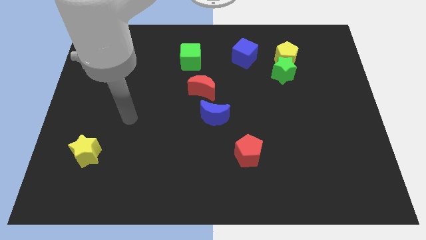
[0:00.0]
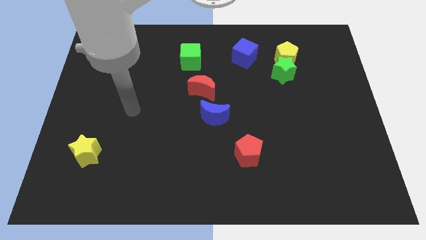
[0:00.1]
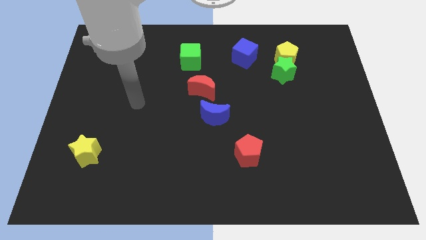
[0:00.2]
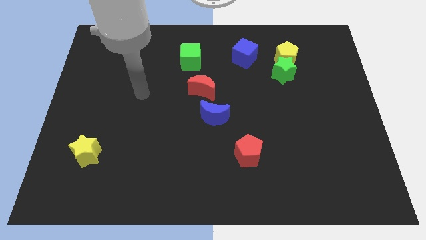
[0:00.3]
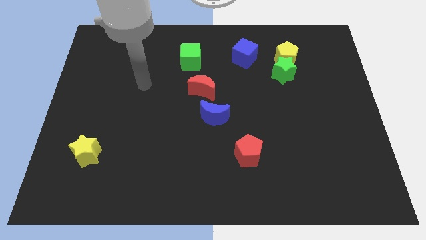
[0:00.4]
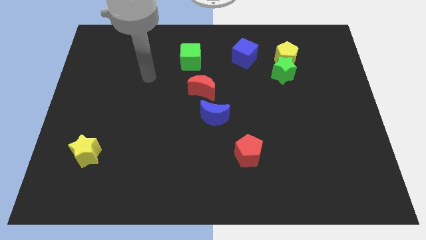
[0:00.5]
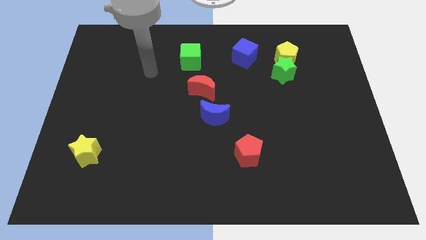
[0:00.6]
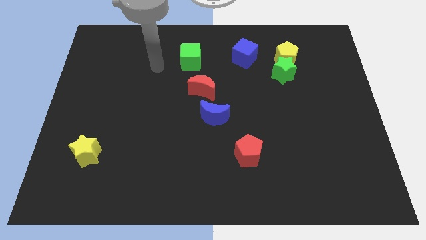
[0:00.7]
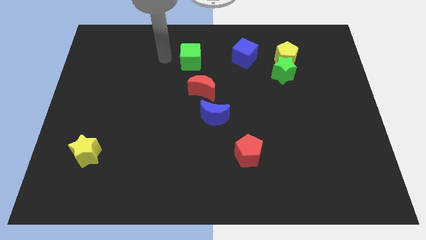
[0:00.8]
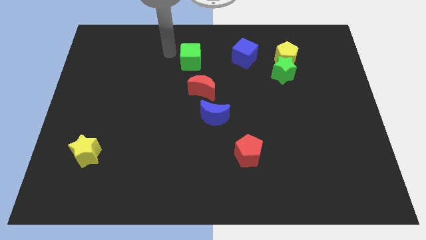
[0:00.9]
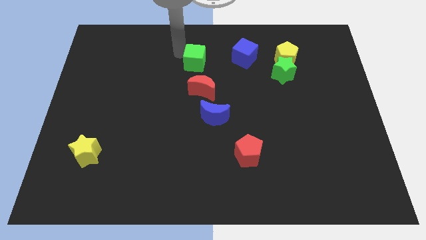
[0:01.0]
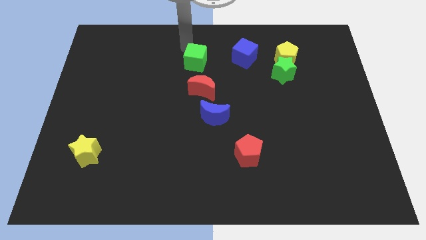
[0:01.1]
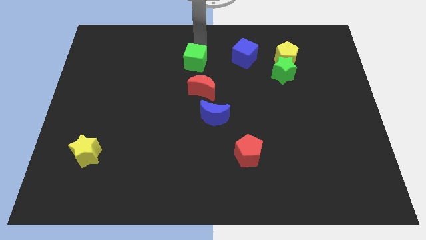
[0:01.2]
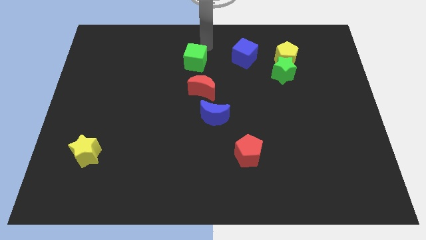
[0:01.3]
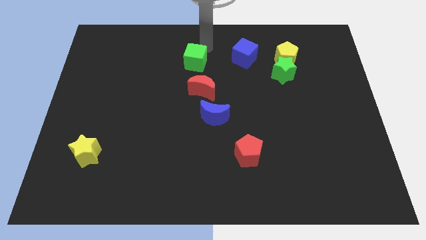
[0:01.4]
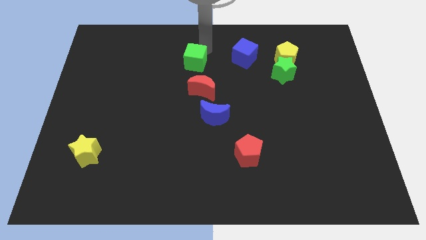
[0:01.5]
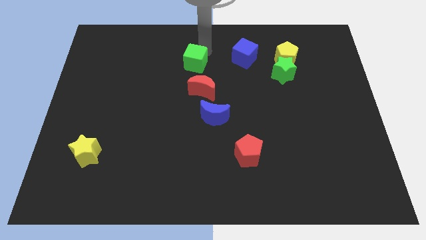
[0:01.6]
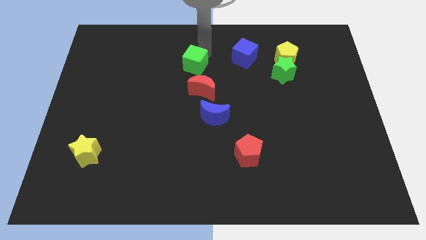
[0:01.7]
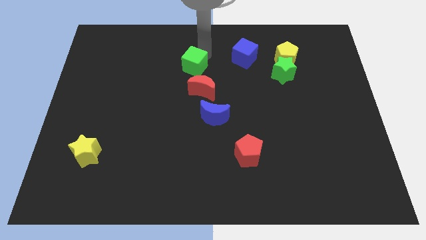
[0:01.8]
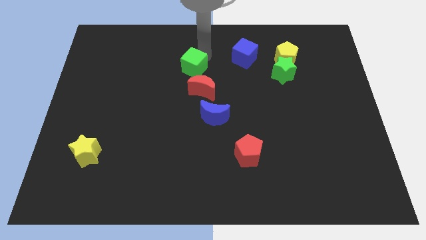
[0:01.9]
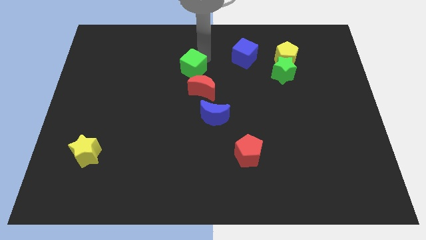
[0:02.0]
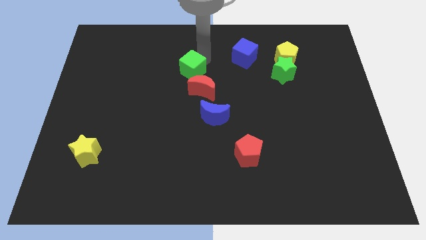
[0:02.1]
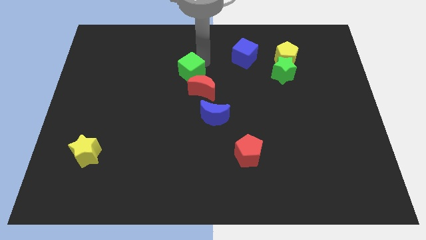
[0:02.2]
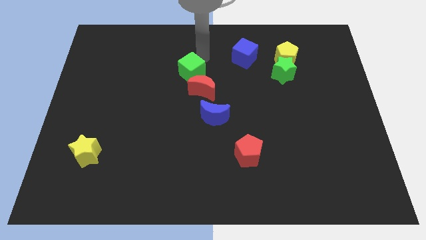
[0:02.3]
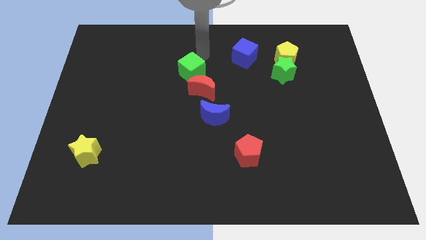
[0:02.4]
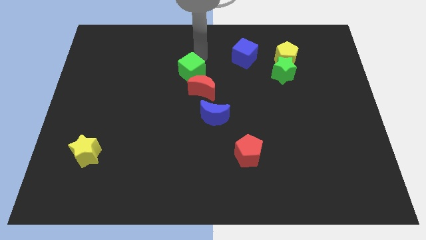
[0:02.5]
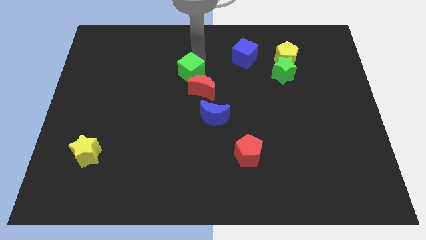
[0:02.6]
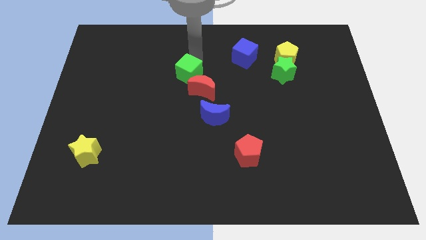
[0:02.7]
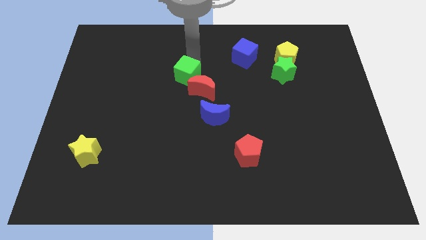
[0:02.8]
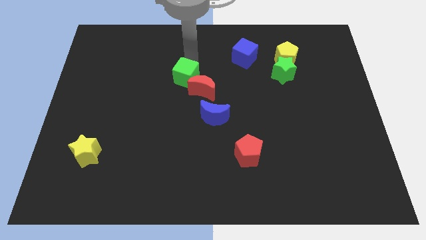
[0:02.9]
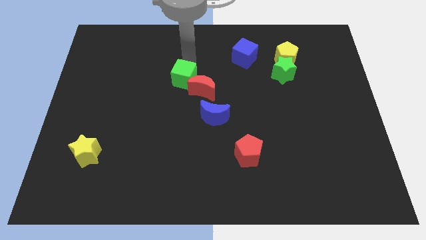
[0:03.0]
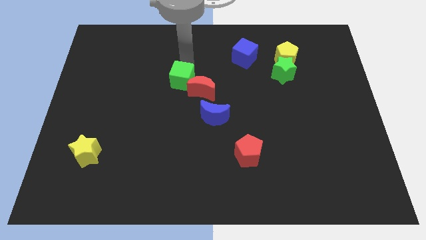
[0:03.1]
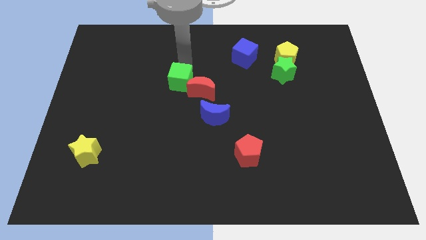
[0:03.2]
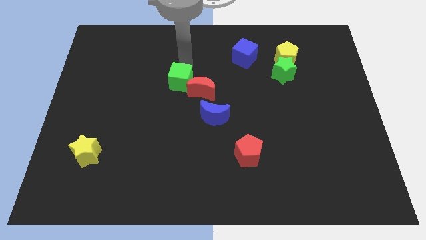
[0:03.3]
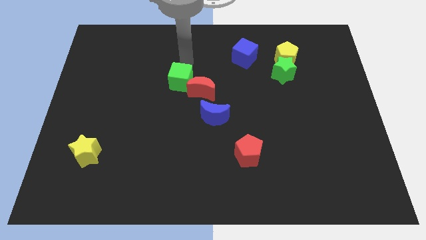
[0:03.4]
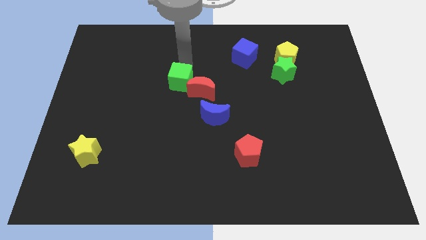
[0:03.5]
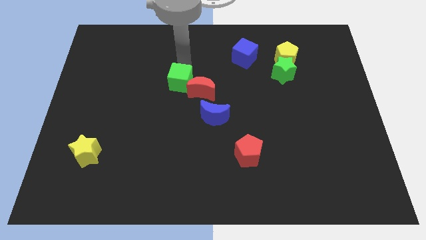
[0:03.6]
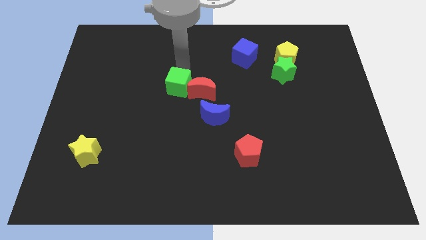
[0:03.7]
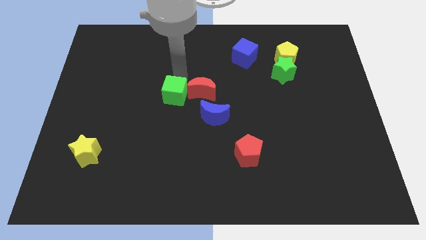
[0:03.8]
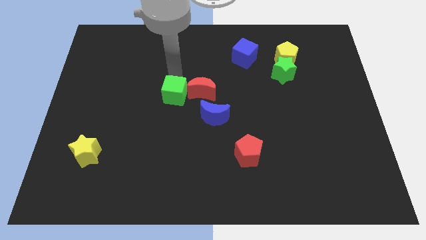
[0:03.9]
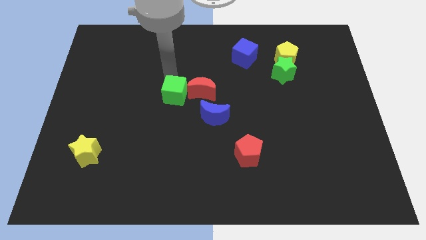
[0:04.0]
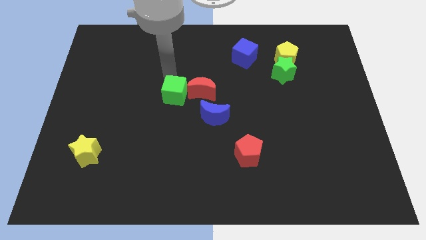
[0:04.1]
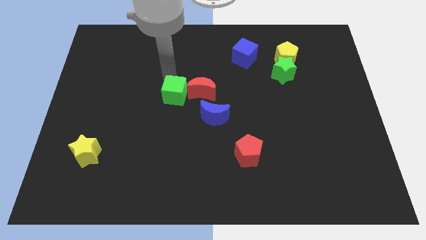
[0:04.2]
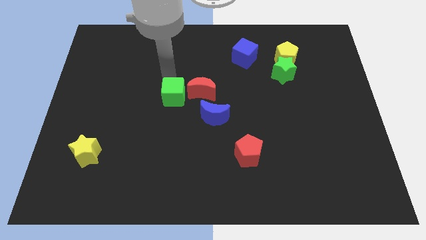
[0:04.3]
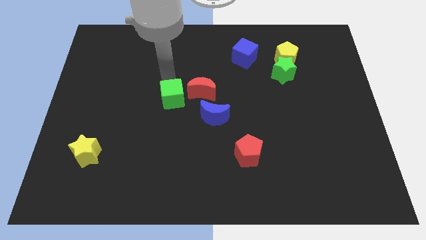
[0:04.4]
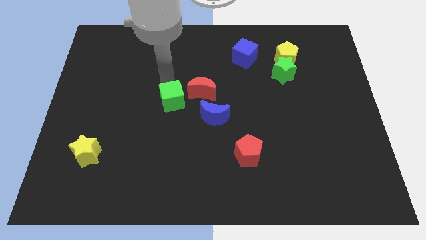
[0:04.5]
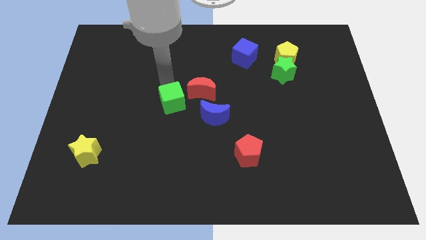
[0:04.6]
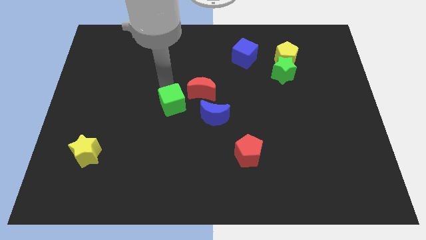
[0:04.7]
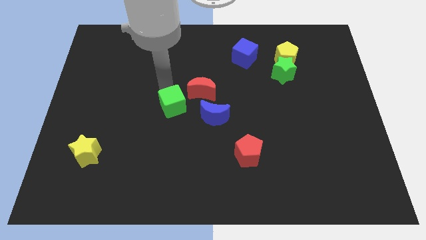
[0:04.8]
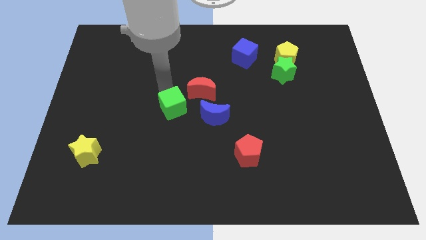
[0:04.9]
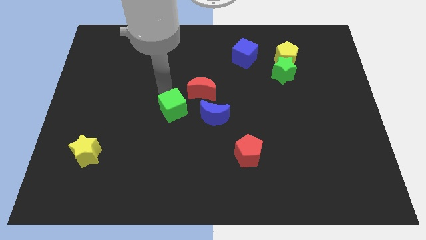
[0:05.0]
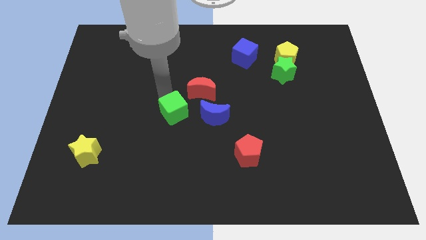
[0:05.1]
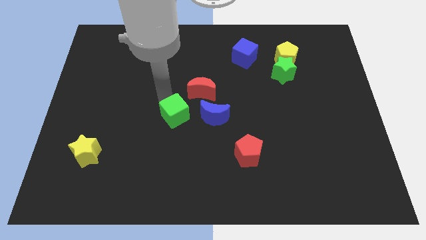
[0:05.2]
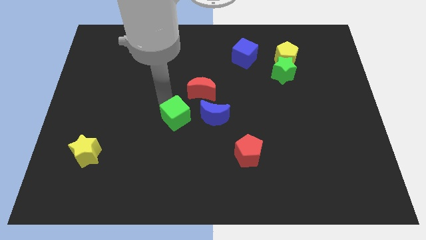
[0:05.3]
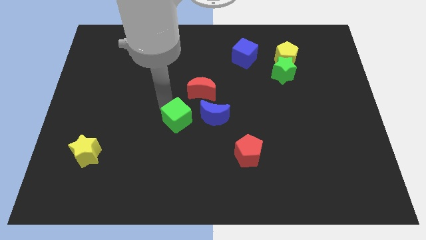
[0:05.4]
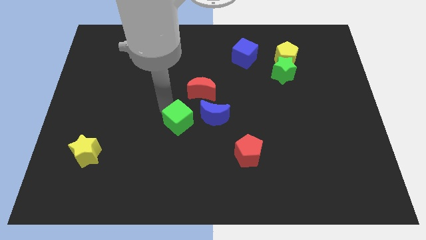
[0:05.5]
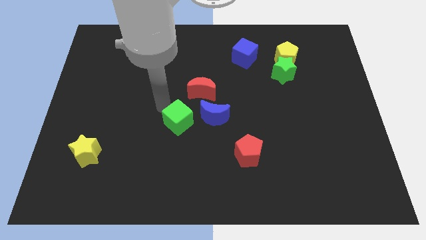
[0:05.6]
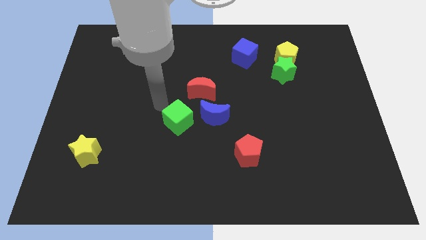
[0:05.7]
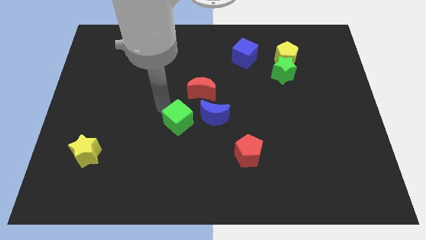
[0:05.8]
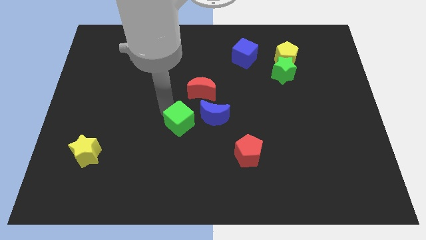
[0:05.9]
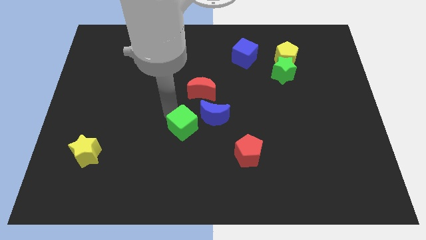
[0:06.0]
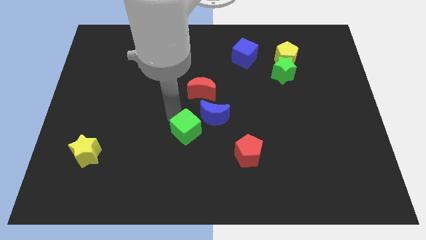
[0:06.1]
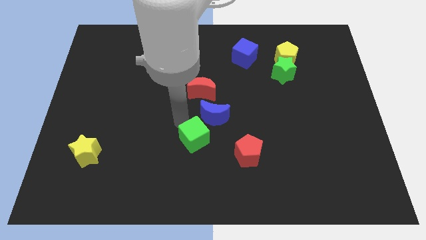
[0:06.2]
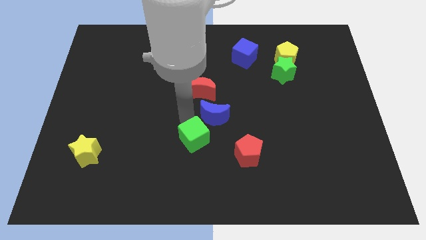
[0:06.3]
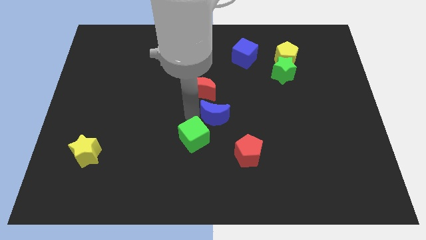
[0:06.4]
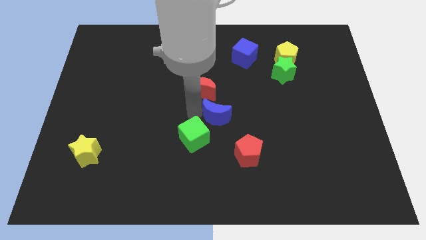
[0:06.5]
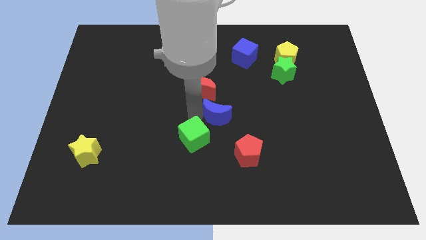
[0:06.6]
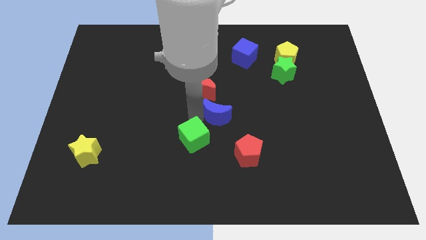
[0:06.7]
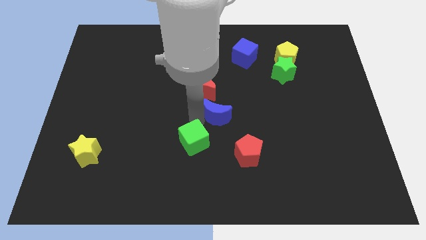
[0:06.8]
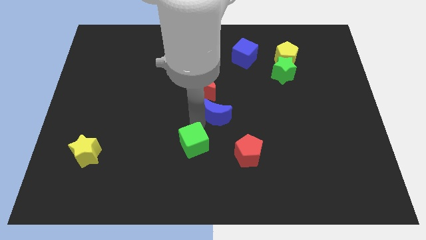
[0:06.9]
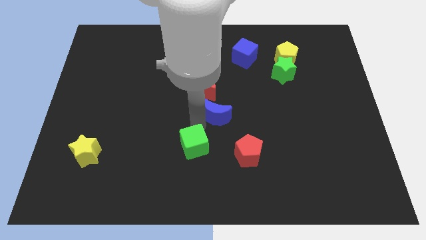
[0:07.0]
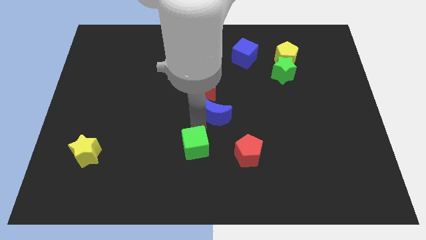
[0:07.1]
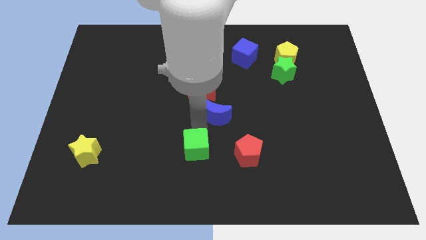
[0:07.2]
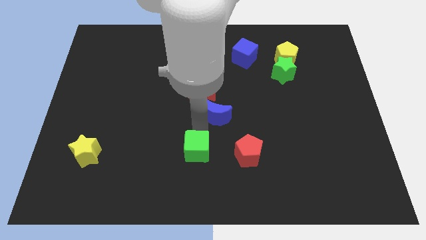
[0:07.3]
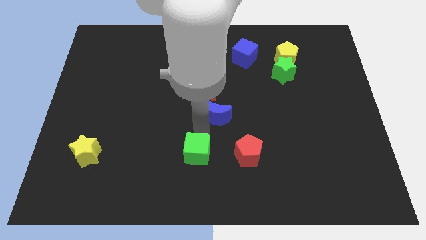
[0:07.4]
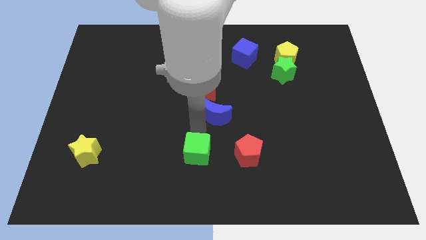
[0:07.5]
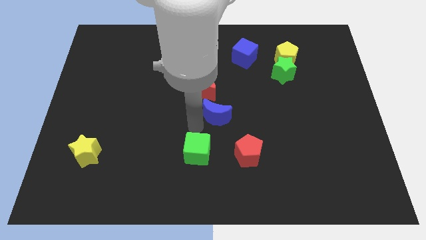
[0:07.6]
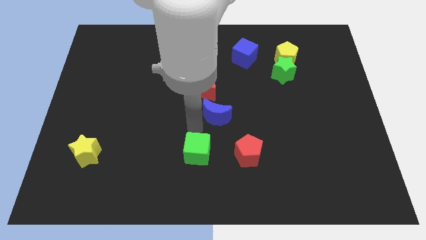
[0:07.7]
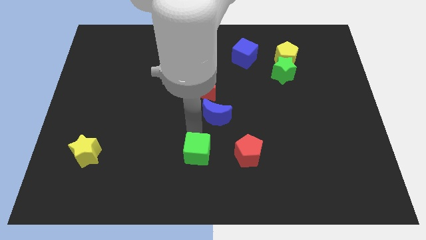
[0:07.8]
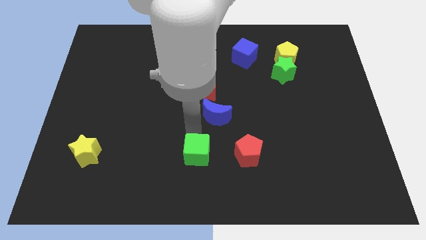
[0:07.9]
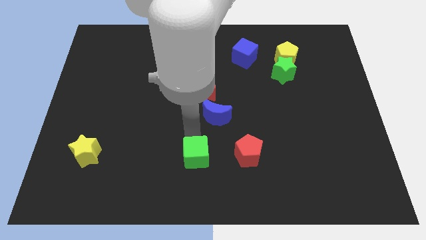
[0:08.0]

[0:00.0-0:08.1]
put the green cube to the bottom side
